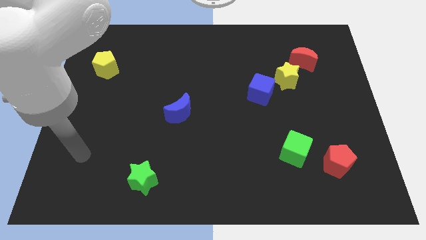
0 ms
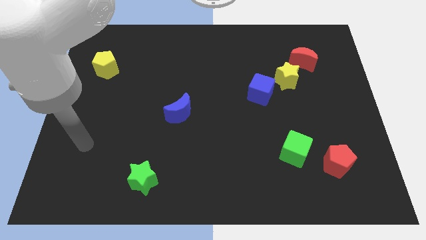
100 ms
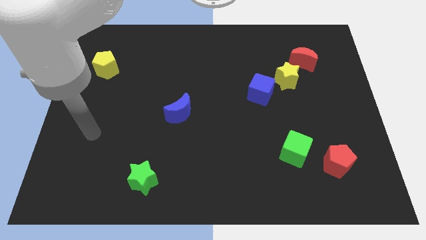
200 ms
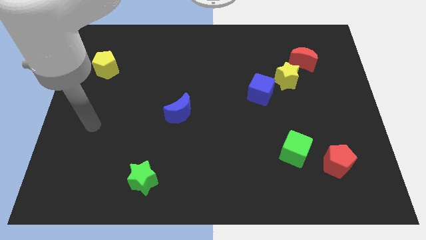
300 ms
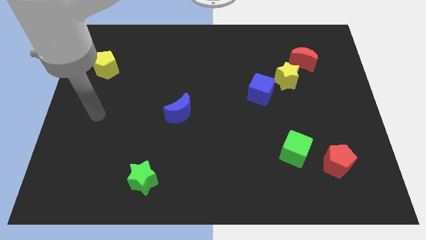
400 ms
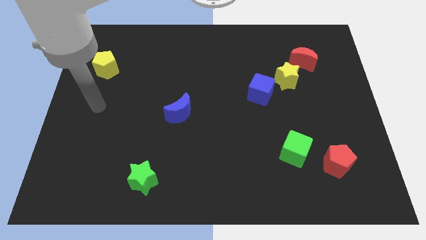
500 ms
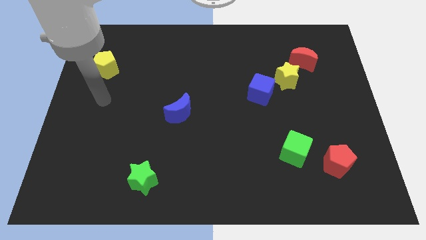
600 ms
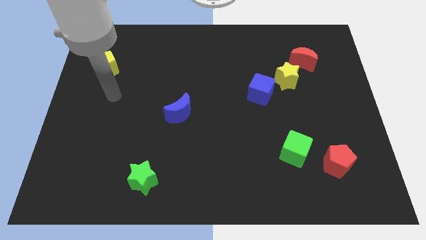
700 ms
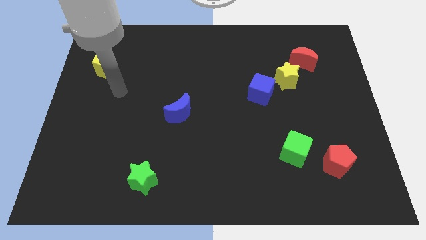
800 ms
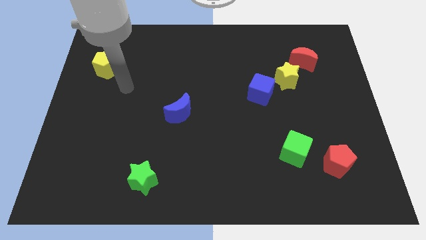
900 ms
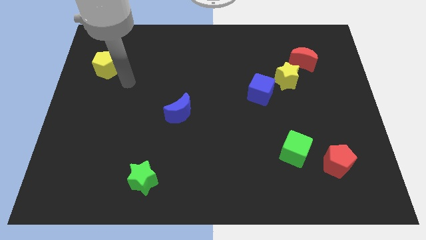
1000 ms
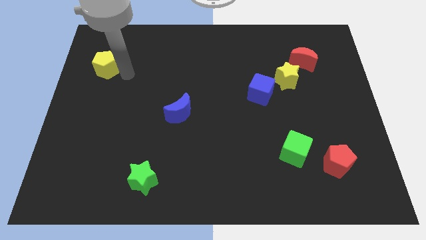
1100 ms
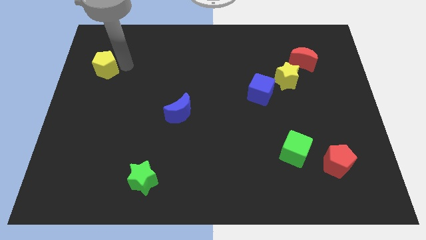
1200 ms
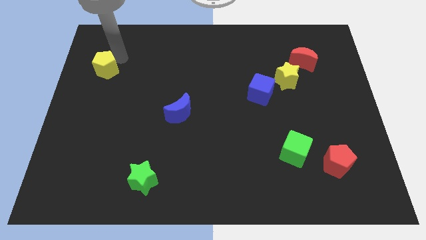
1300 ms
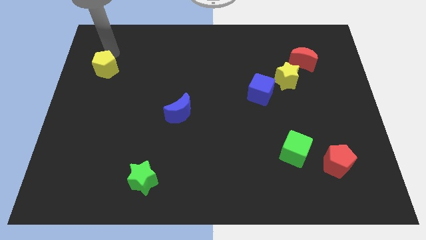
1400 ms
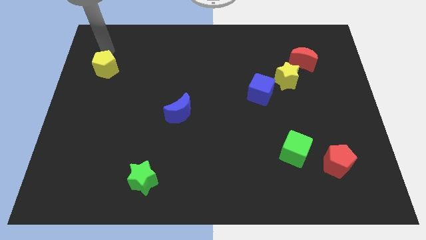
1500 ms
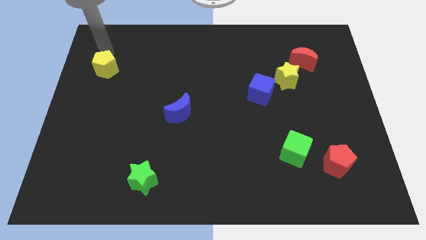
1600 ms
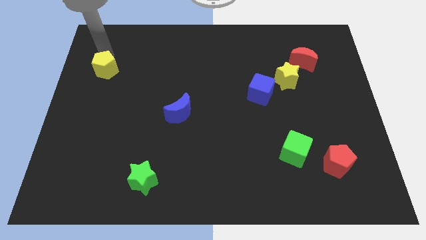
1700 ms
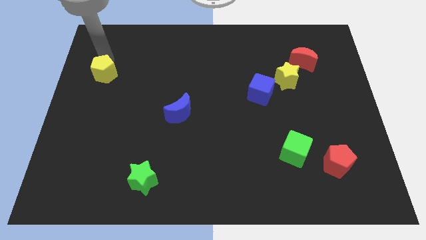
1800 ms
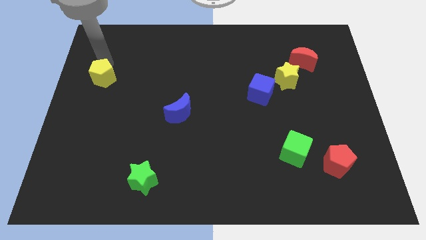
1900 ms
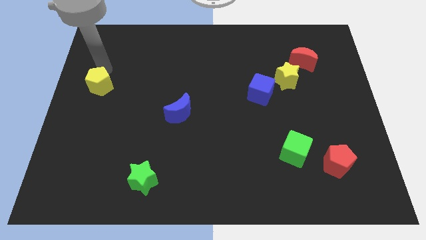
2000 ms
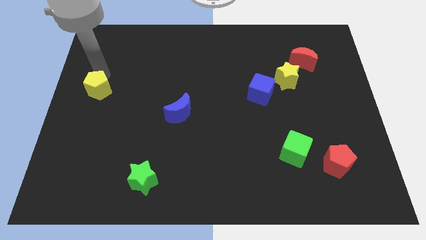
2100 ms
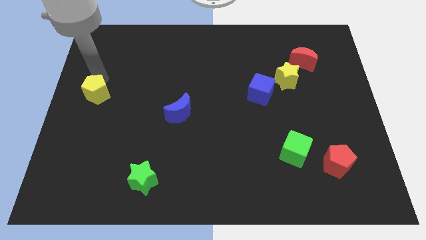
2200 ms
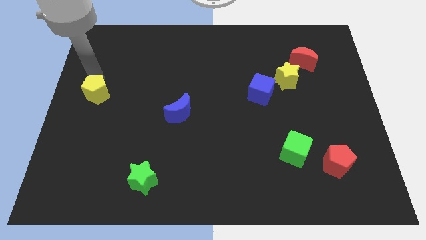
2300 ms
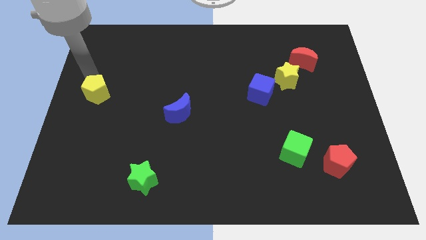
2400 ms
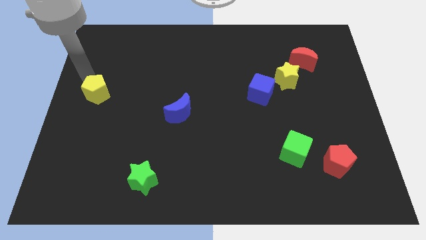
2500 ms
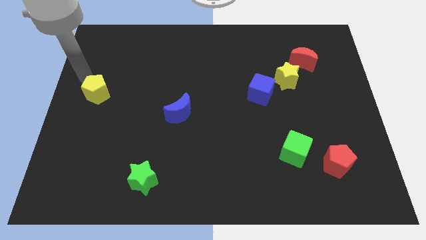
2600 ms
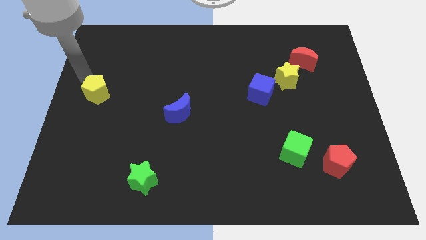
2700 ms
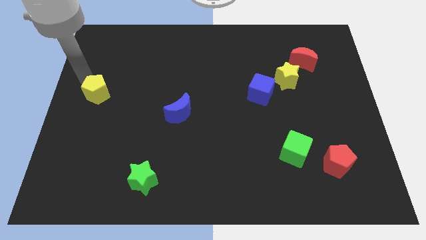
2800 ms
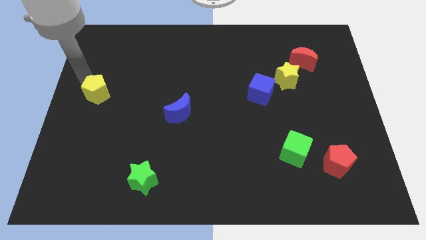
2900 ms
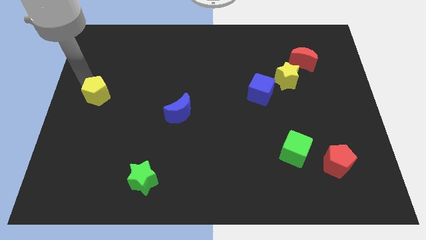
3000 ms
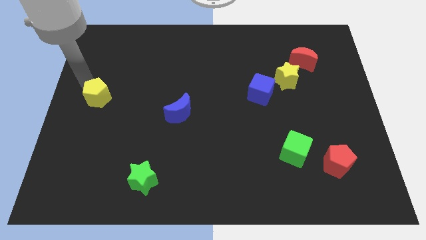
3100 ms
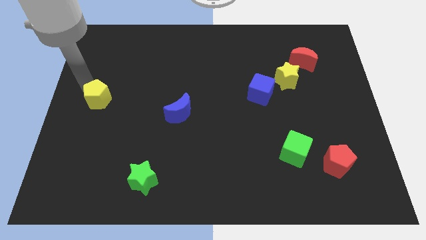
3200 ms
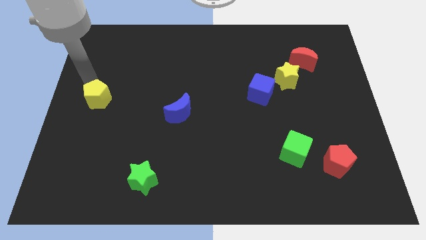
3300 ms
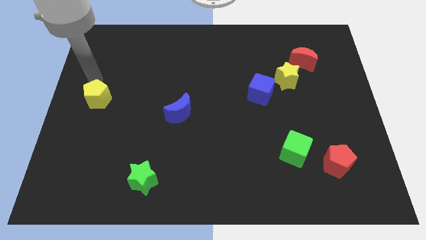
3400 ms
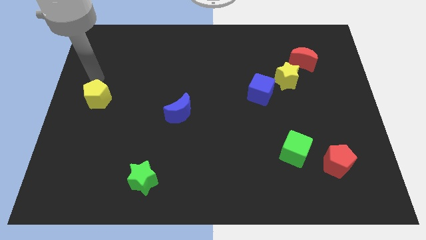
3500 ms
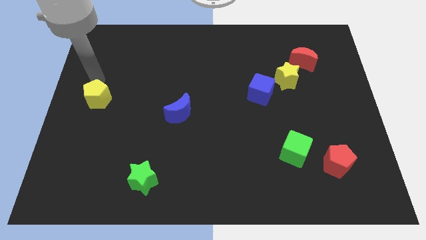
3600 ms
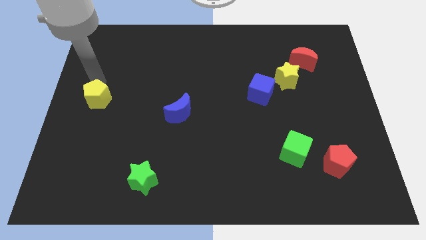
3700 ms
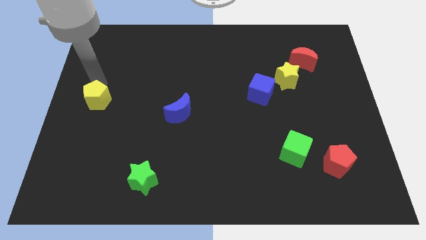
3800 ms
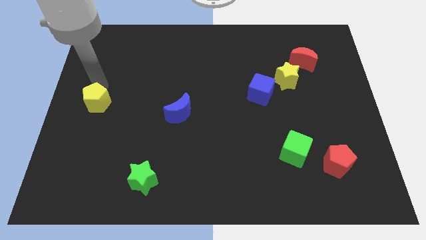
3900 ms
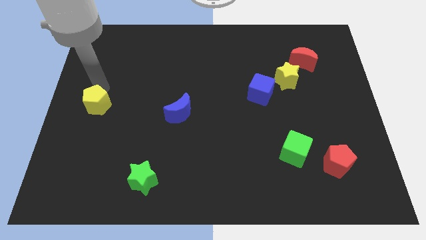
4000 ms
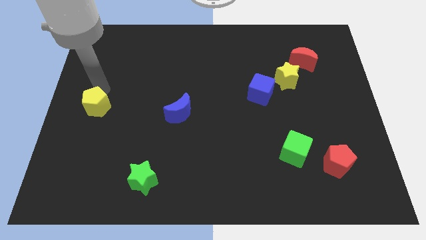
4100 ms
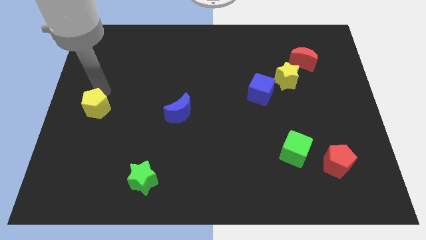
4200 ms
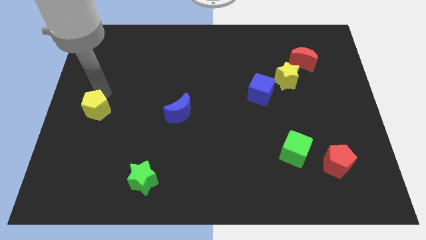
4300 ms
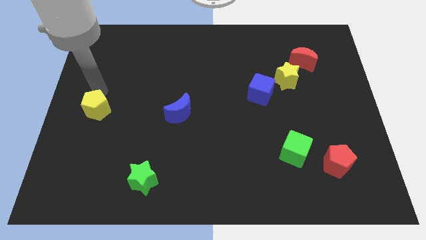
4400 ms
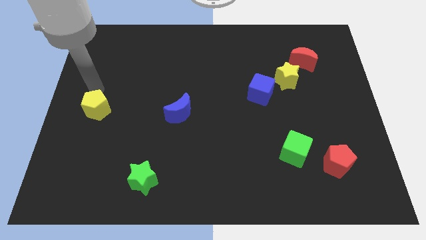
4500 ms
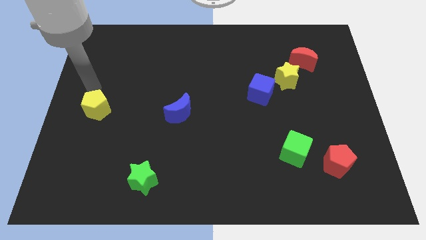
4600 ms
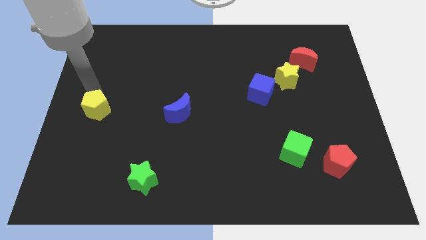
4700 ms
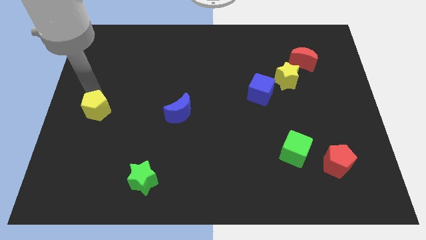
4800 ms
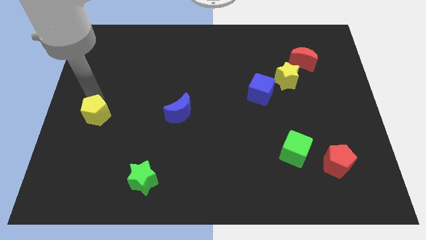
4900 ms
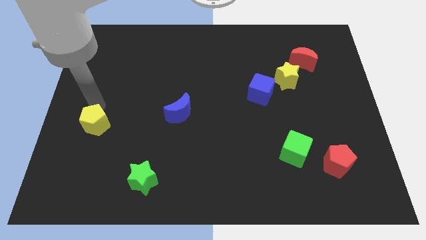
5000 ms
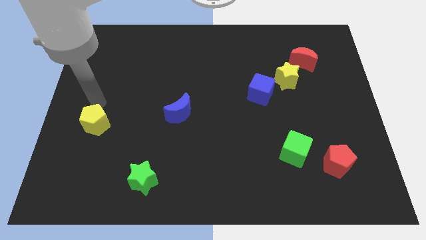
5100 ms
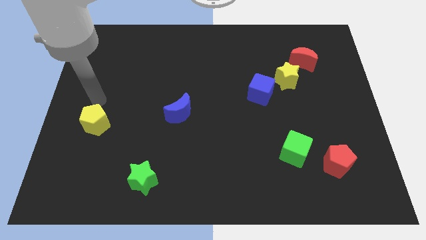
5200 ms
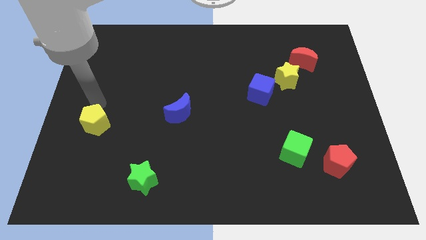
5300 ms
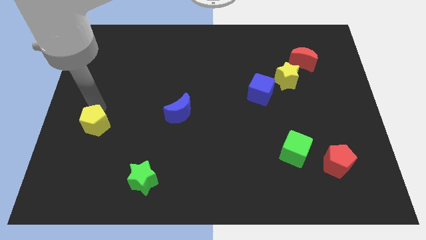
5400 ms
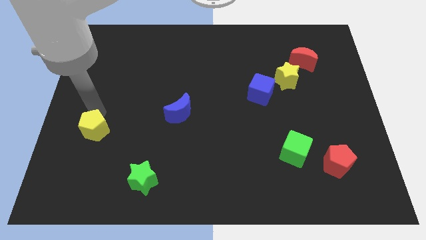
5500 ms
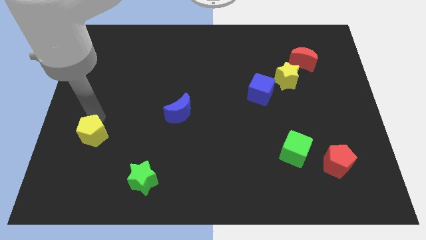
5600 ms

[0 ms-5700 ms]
move the yellow pentagon down

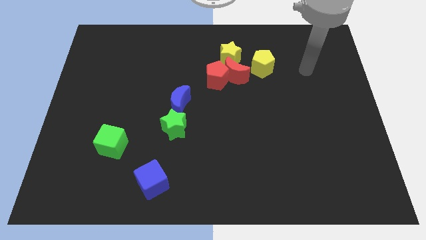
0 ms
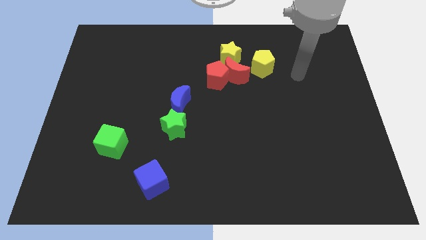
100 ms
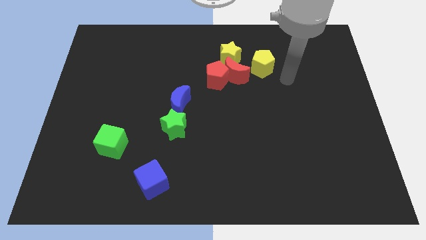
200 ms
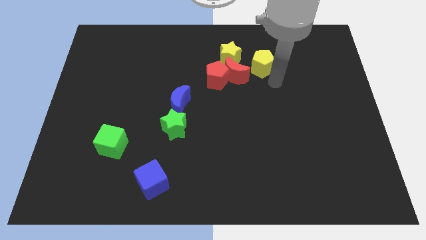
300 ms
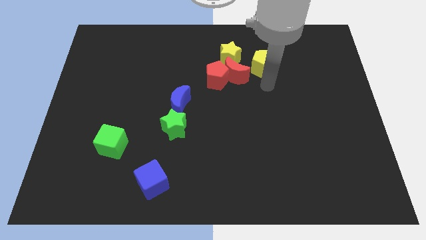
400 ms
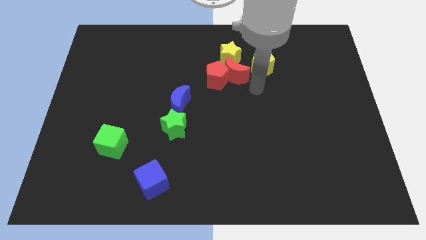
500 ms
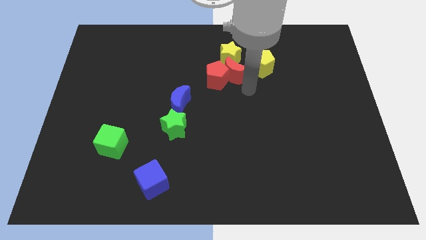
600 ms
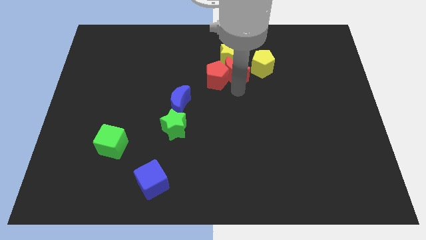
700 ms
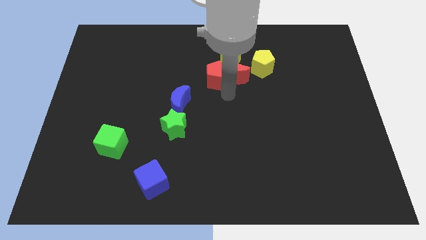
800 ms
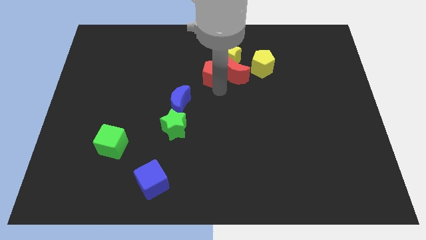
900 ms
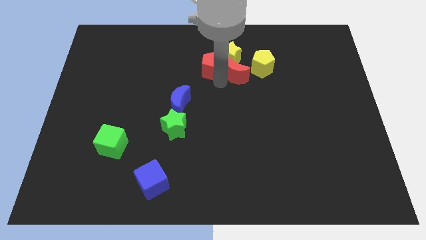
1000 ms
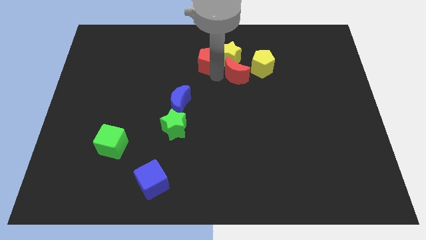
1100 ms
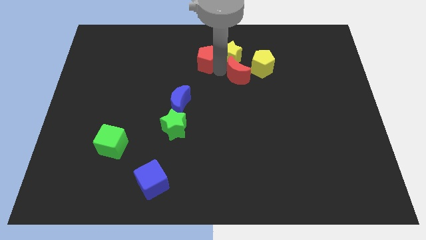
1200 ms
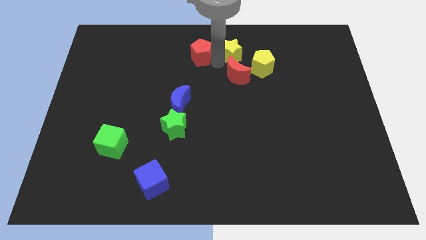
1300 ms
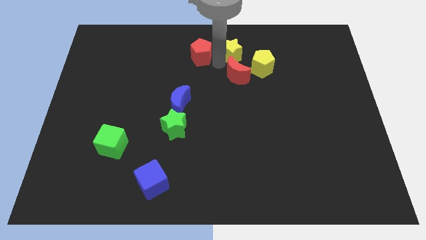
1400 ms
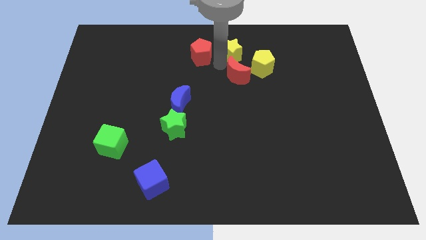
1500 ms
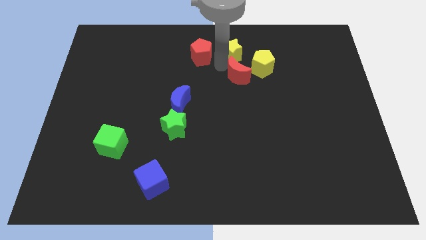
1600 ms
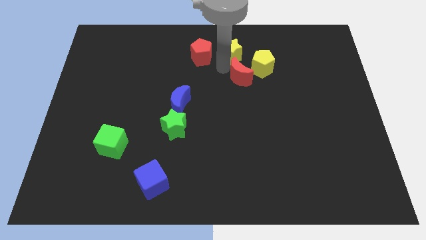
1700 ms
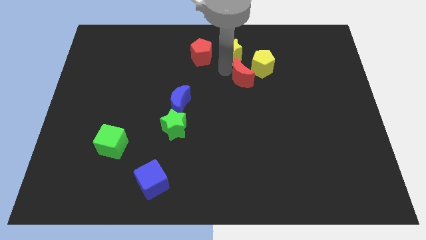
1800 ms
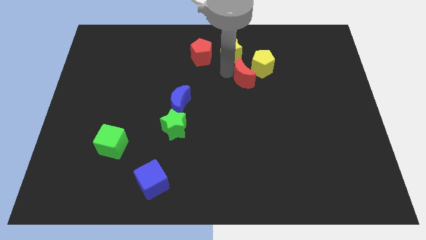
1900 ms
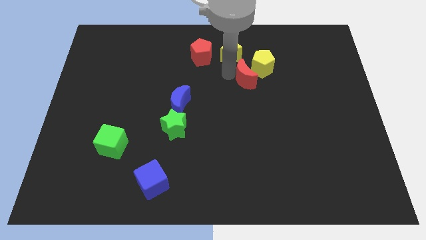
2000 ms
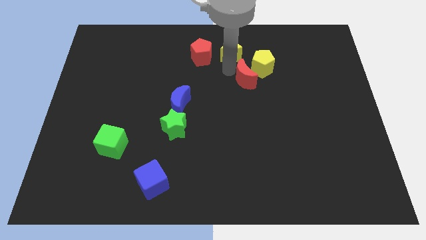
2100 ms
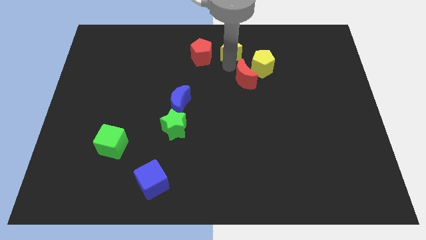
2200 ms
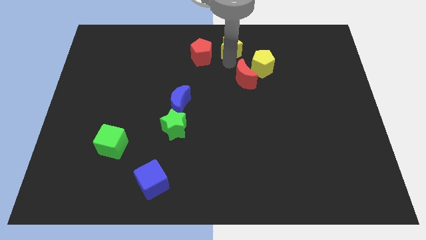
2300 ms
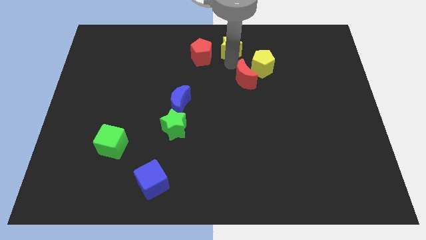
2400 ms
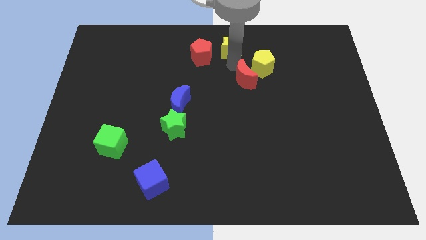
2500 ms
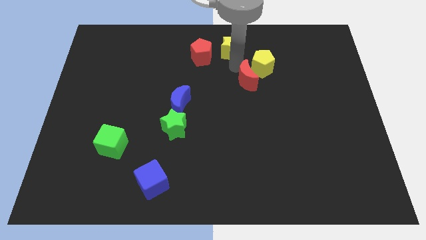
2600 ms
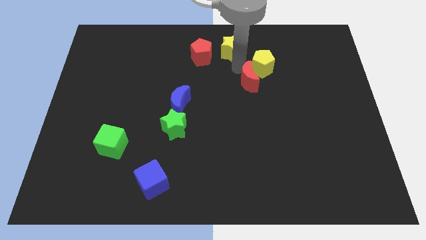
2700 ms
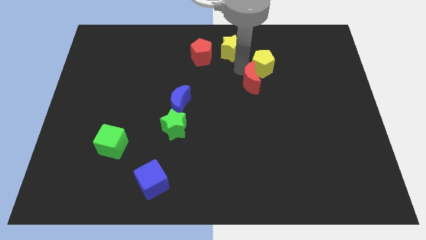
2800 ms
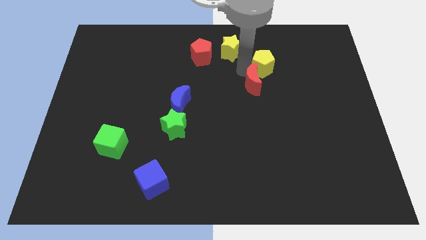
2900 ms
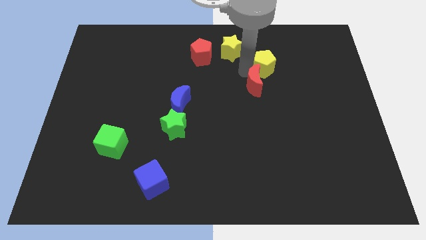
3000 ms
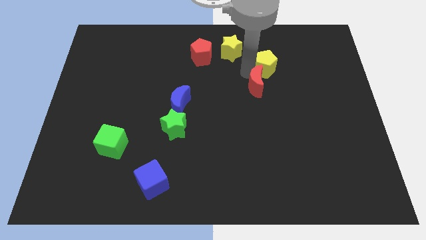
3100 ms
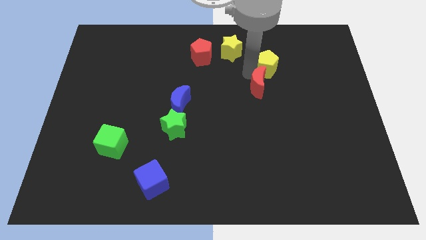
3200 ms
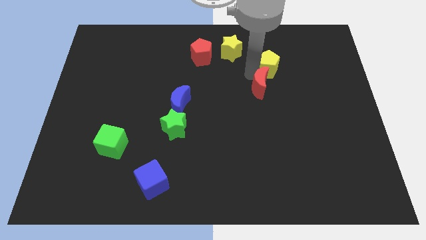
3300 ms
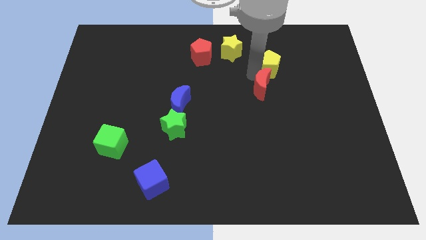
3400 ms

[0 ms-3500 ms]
slightly push the red moon downwards and right
